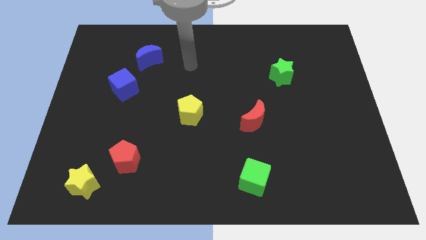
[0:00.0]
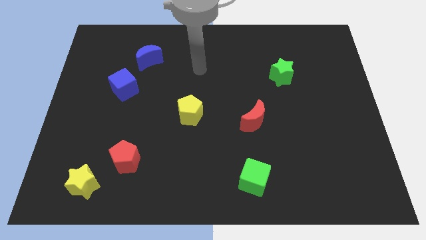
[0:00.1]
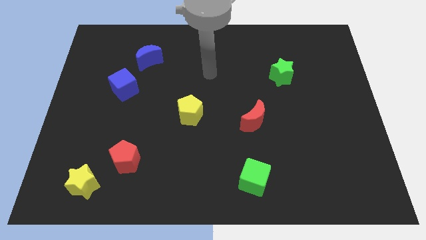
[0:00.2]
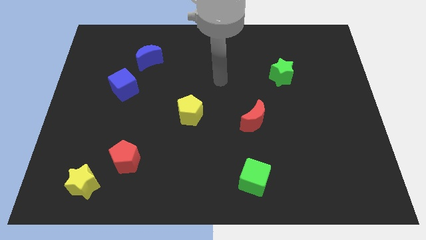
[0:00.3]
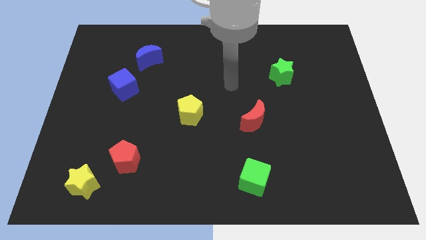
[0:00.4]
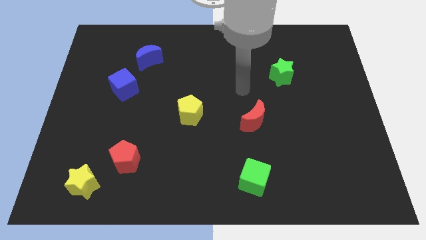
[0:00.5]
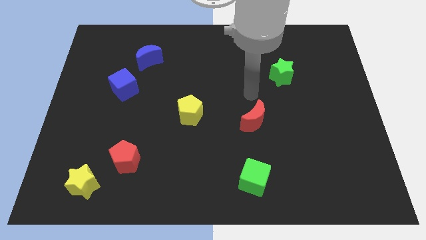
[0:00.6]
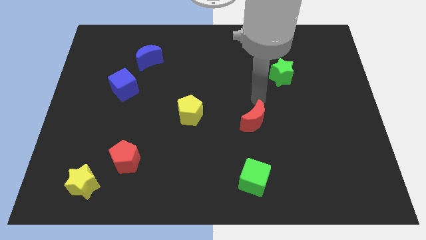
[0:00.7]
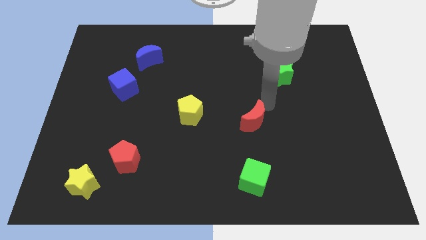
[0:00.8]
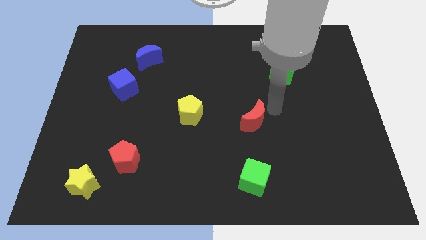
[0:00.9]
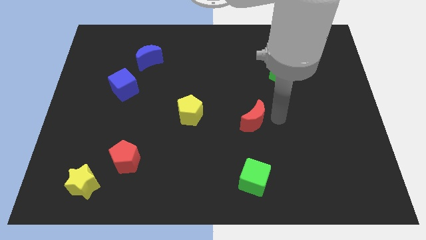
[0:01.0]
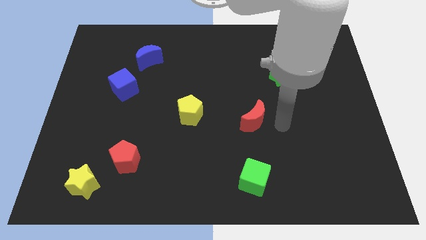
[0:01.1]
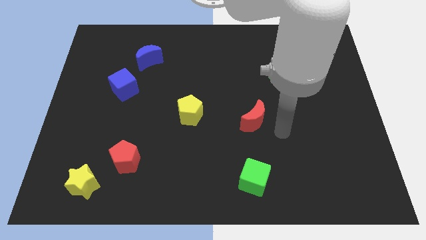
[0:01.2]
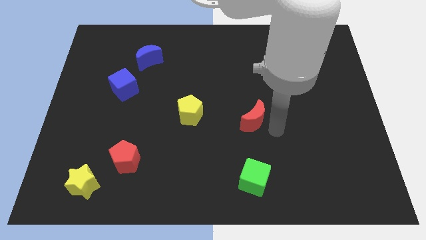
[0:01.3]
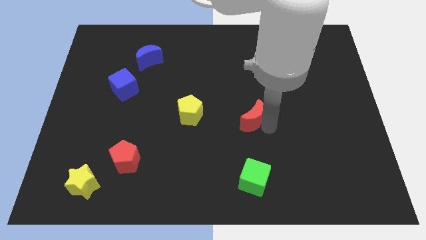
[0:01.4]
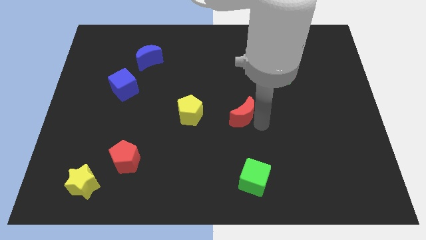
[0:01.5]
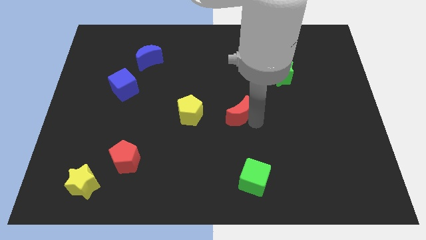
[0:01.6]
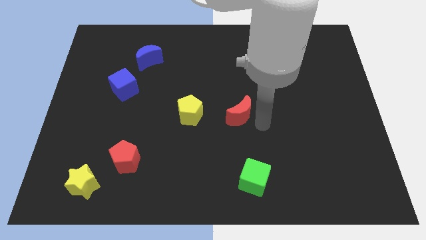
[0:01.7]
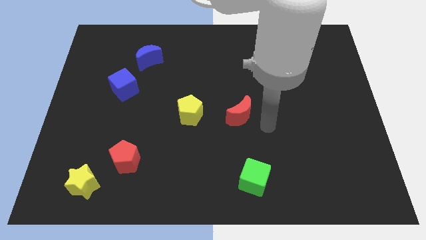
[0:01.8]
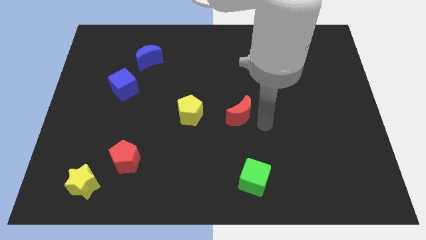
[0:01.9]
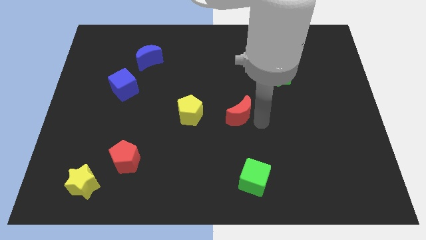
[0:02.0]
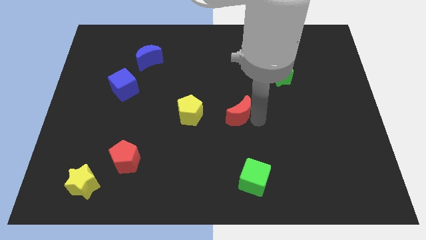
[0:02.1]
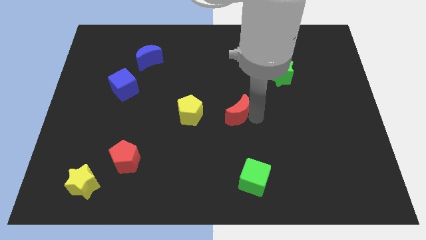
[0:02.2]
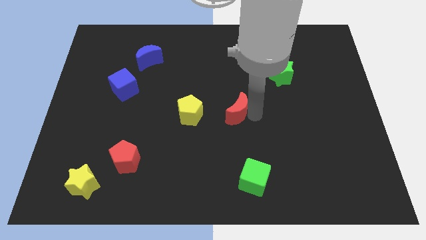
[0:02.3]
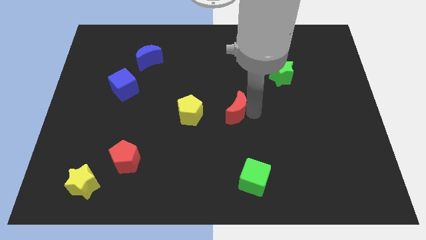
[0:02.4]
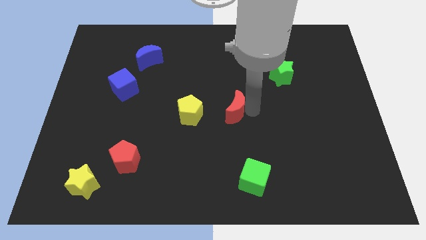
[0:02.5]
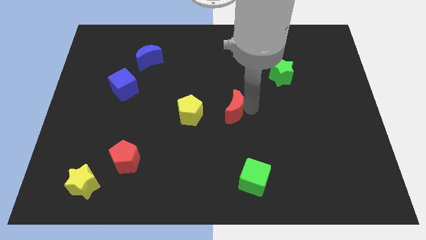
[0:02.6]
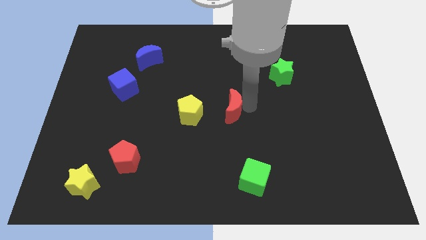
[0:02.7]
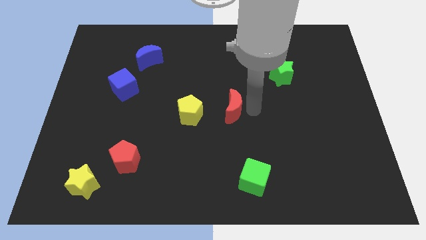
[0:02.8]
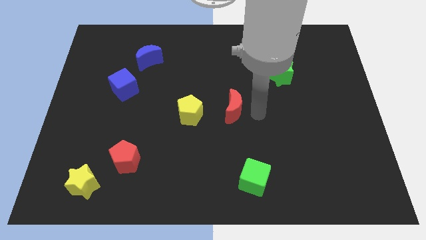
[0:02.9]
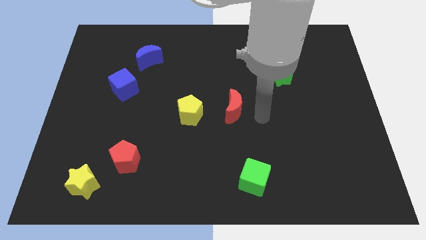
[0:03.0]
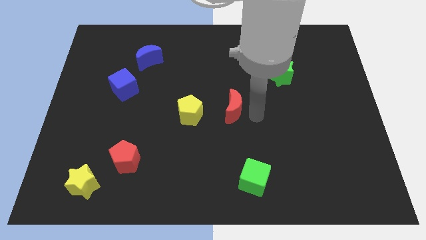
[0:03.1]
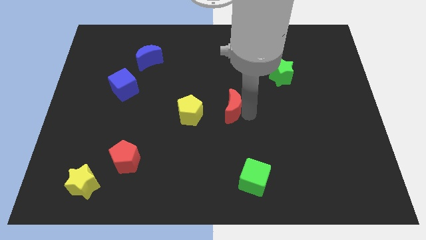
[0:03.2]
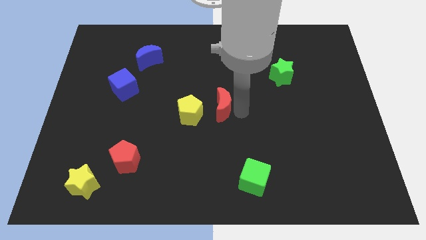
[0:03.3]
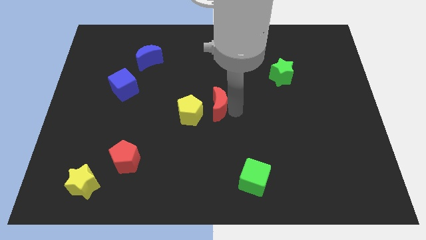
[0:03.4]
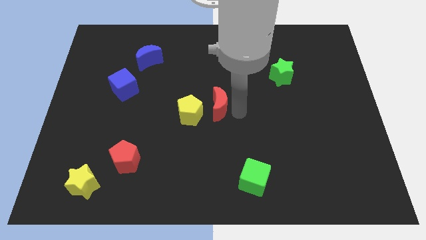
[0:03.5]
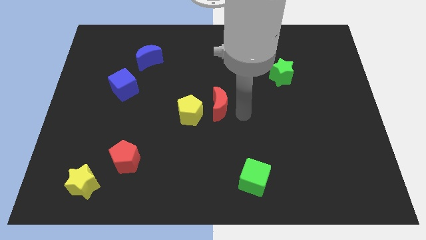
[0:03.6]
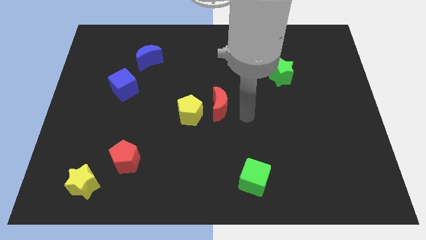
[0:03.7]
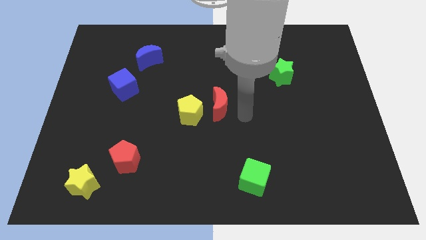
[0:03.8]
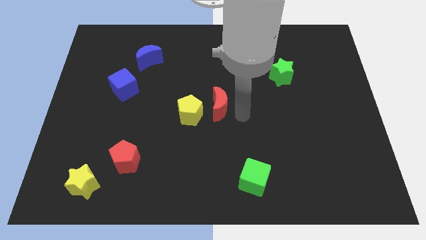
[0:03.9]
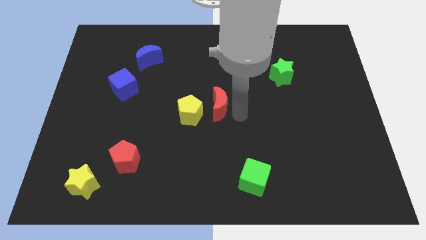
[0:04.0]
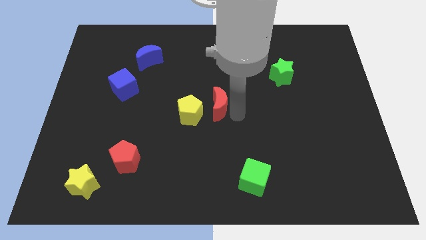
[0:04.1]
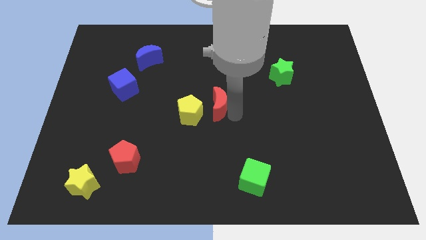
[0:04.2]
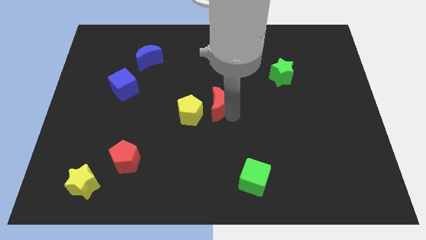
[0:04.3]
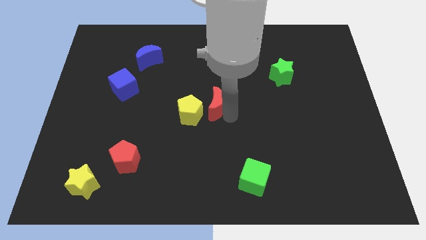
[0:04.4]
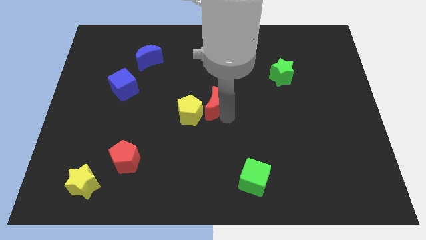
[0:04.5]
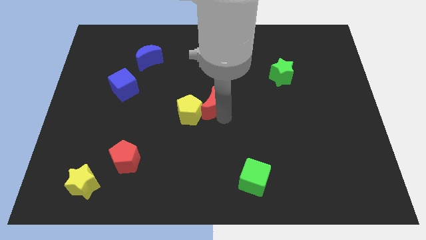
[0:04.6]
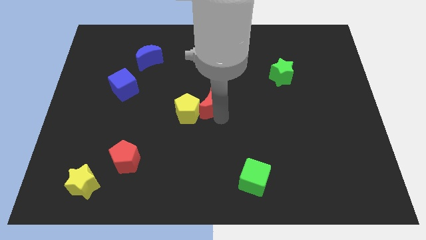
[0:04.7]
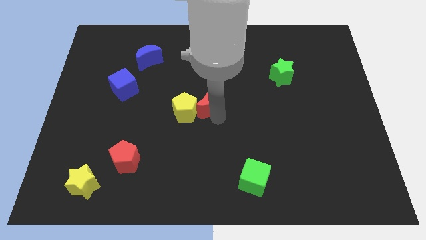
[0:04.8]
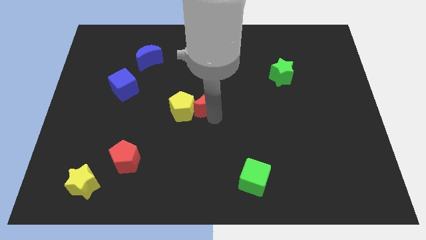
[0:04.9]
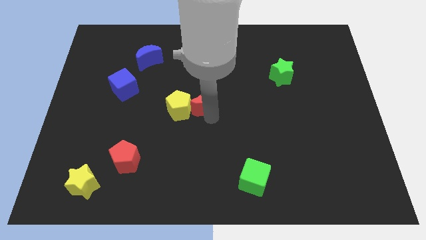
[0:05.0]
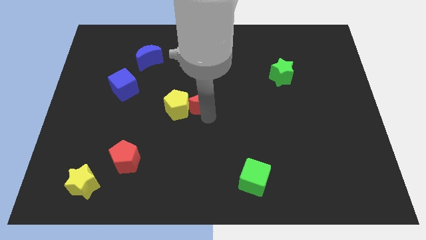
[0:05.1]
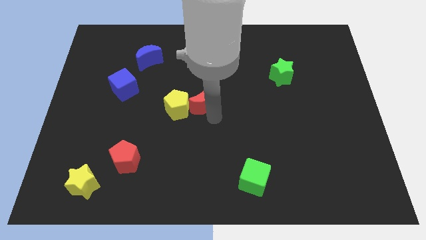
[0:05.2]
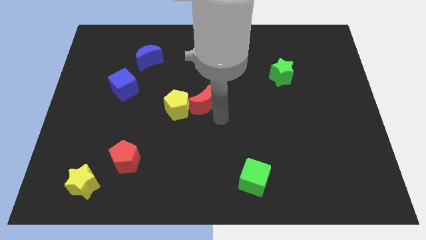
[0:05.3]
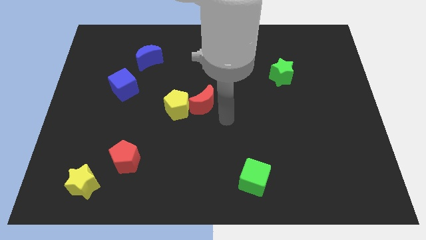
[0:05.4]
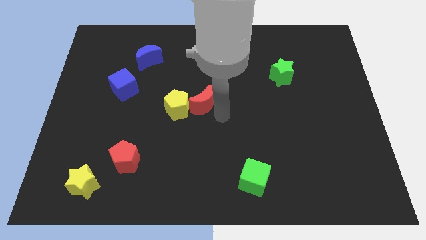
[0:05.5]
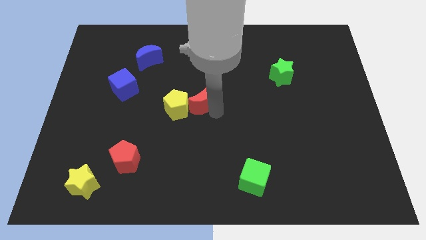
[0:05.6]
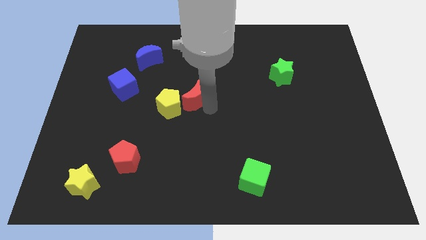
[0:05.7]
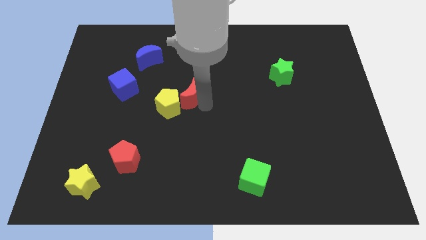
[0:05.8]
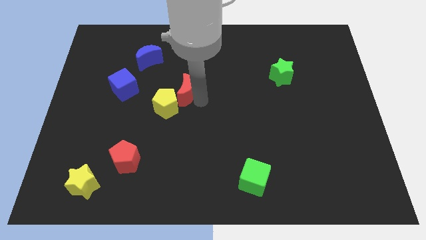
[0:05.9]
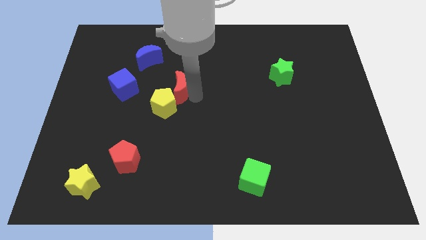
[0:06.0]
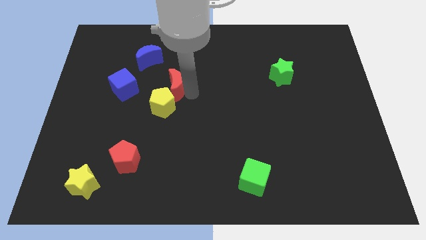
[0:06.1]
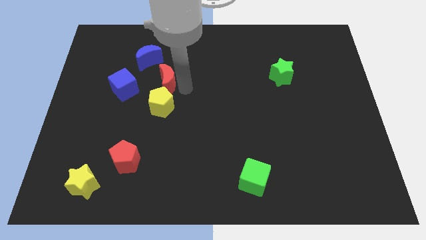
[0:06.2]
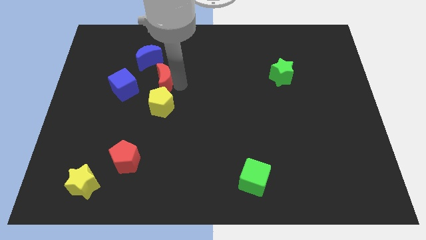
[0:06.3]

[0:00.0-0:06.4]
slide the red moon to the bottom side of the blue moon

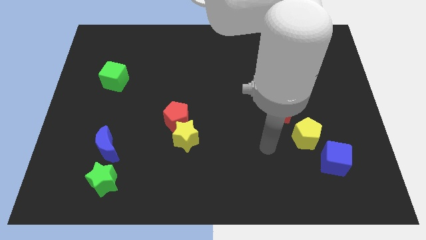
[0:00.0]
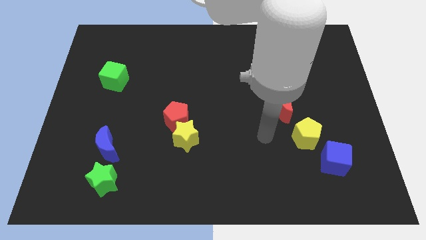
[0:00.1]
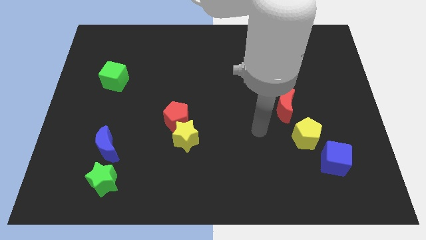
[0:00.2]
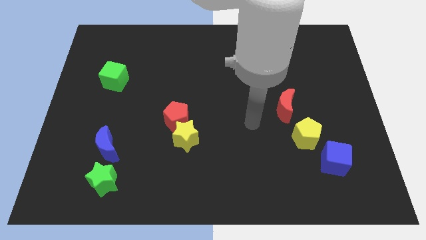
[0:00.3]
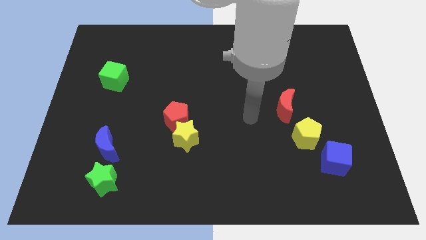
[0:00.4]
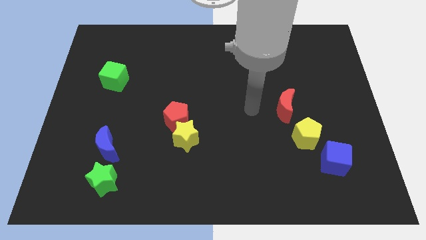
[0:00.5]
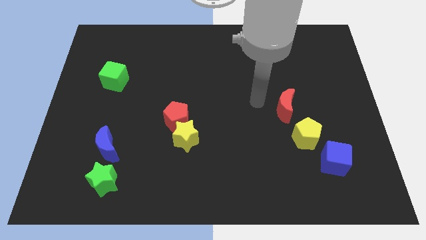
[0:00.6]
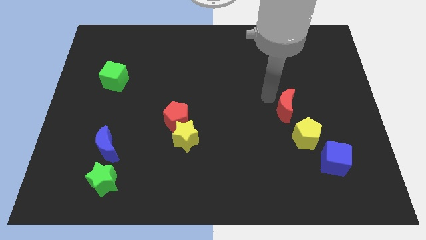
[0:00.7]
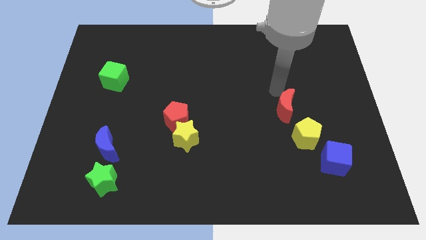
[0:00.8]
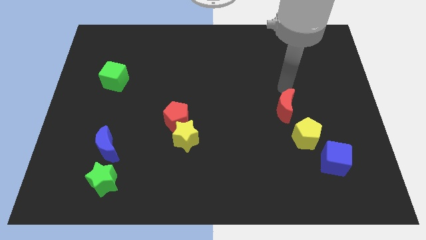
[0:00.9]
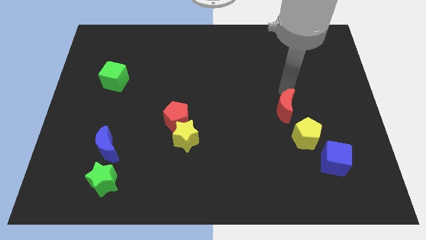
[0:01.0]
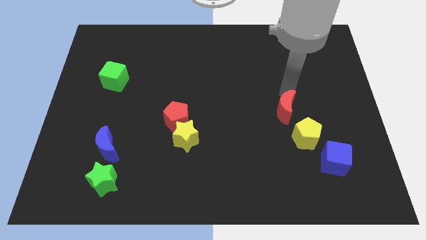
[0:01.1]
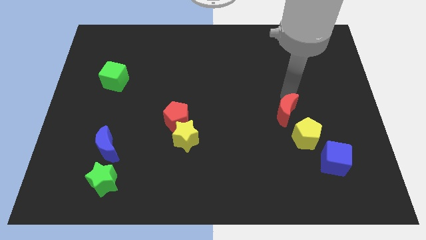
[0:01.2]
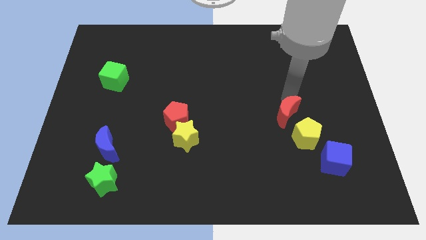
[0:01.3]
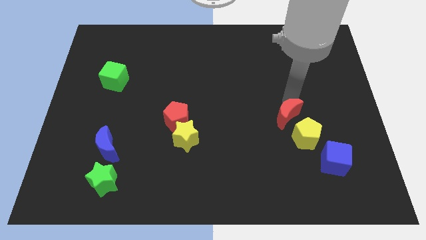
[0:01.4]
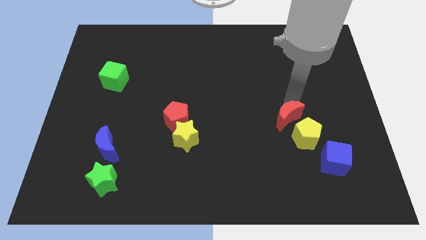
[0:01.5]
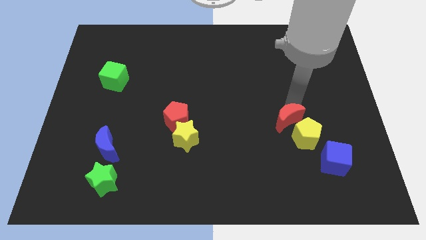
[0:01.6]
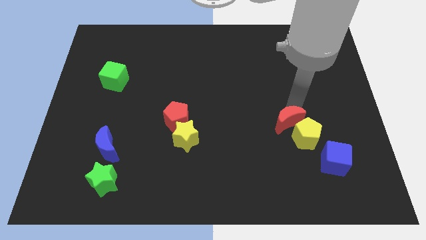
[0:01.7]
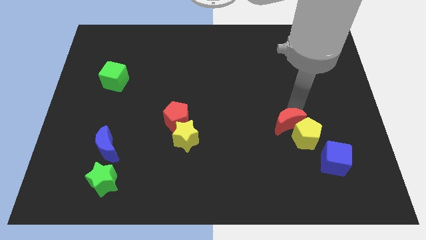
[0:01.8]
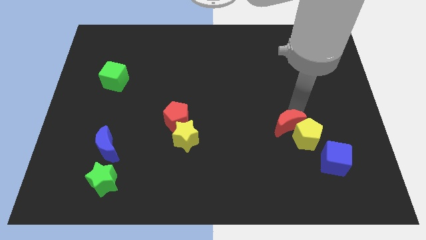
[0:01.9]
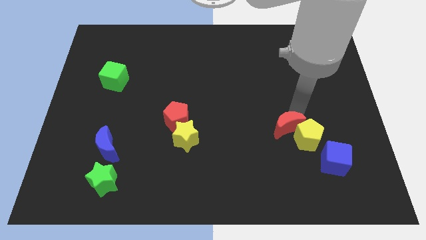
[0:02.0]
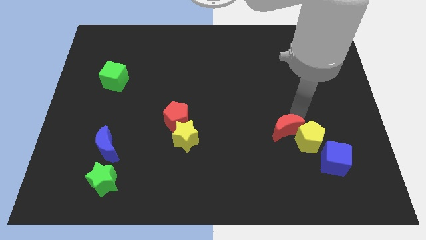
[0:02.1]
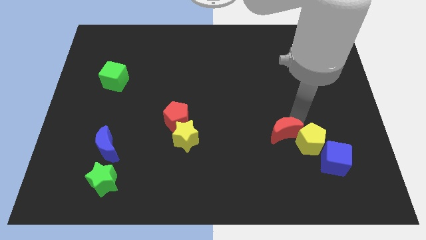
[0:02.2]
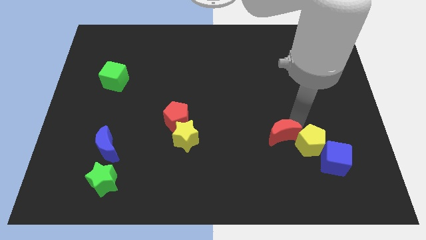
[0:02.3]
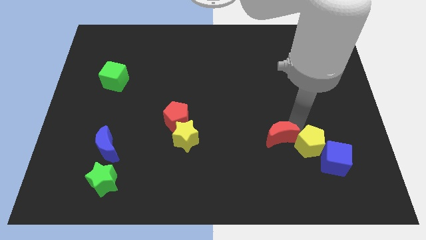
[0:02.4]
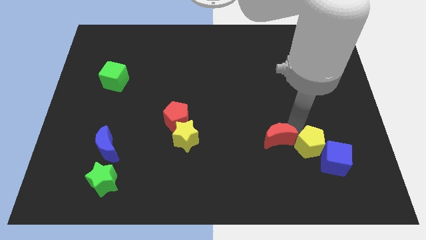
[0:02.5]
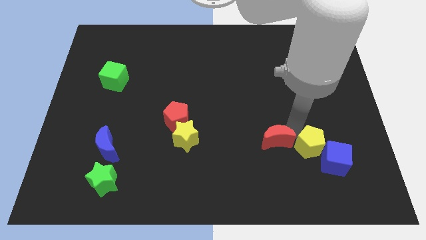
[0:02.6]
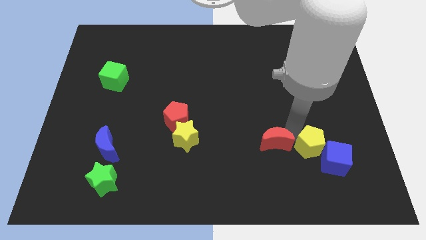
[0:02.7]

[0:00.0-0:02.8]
move the red moon just left of the blue cube
